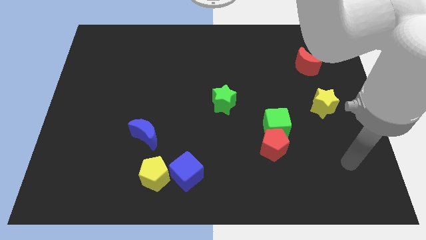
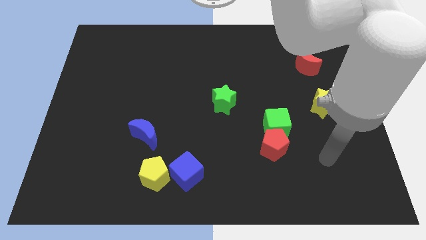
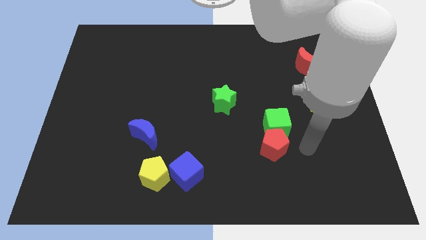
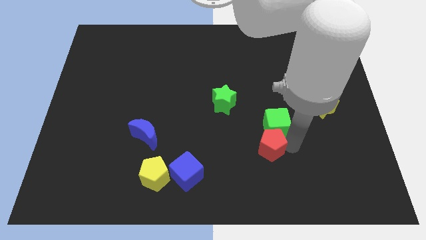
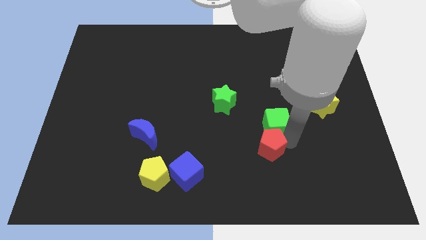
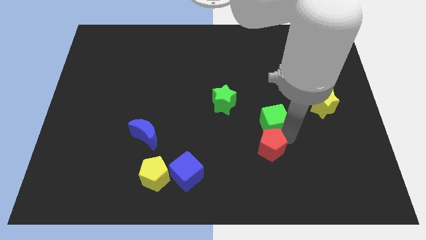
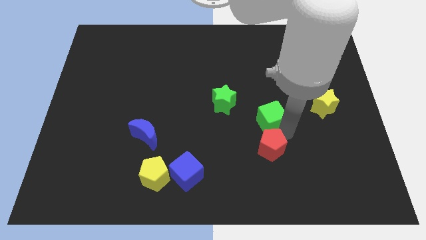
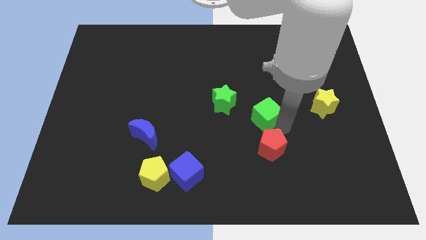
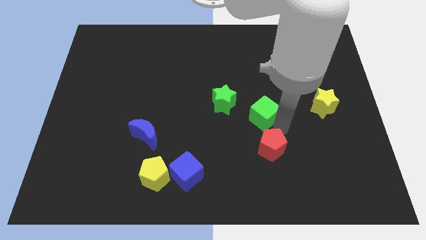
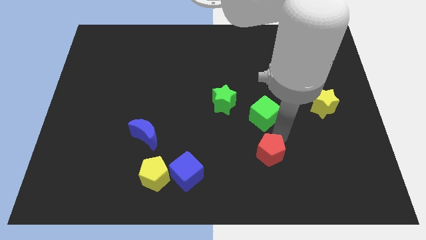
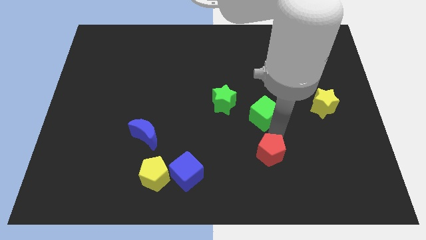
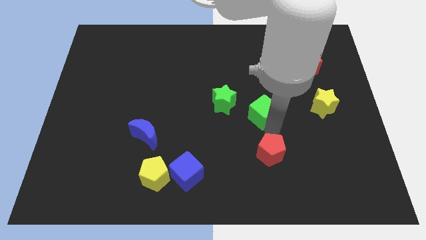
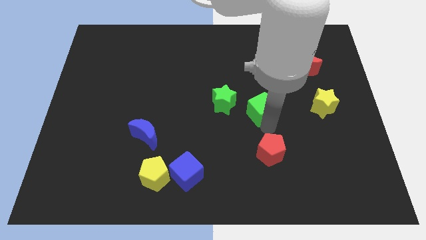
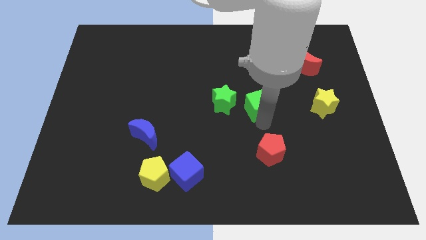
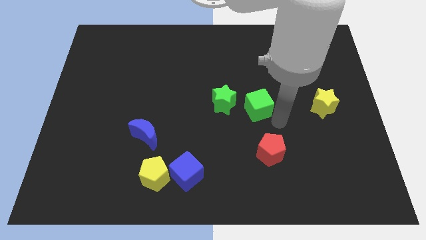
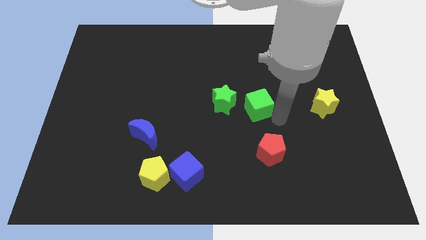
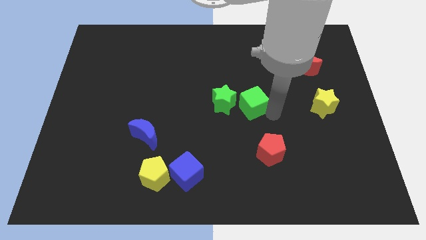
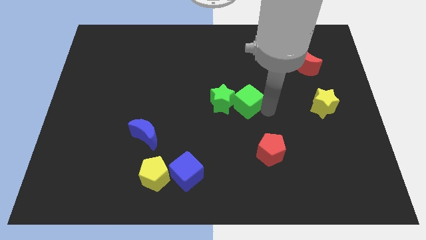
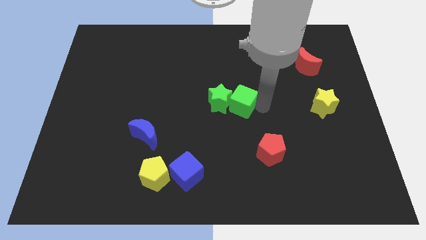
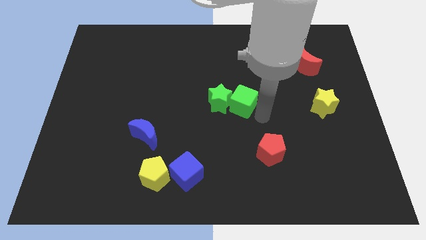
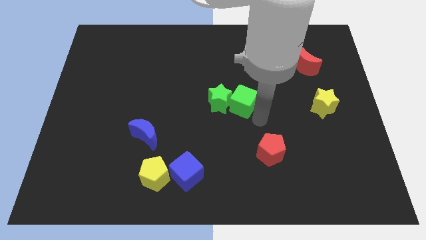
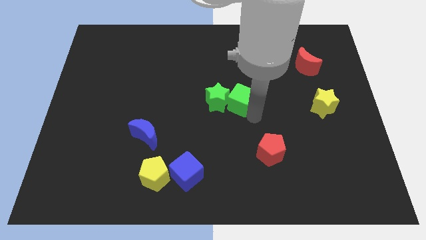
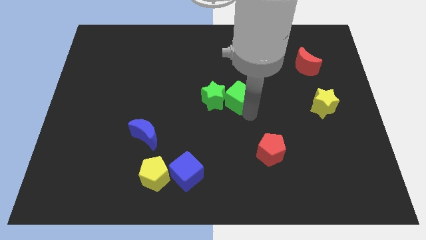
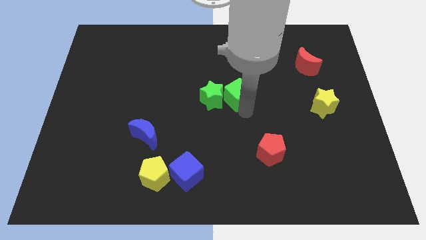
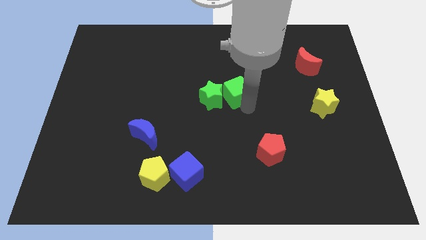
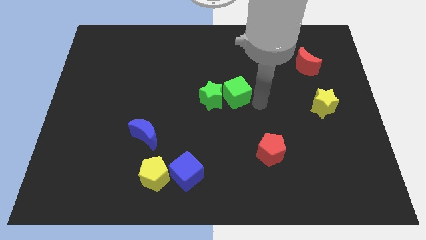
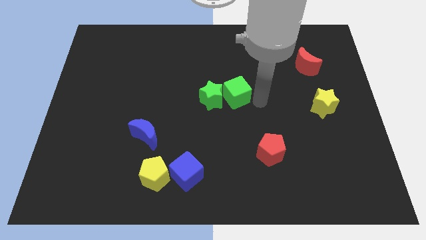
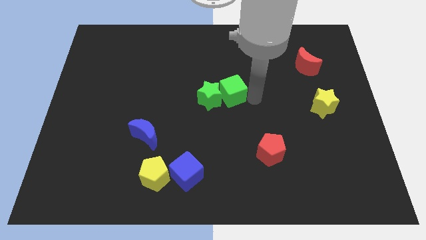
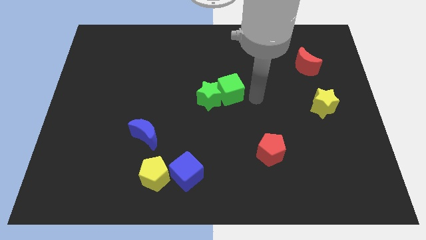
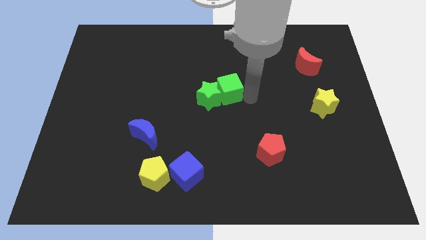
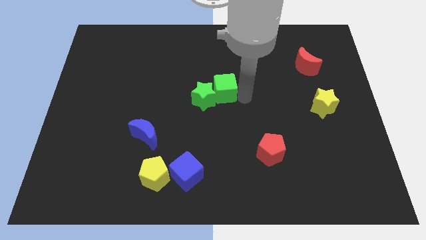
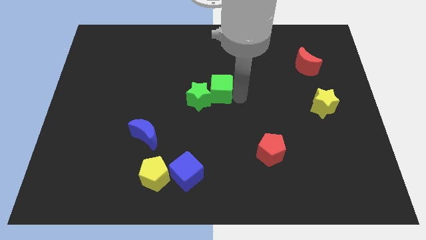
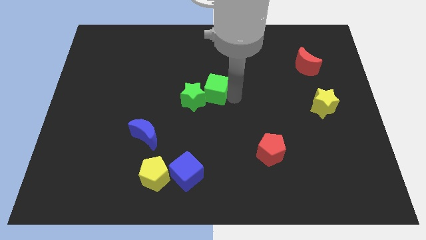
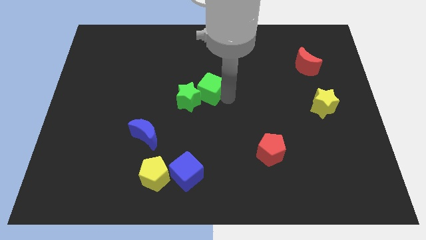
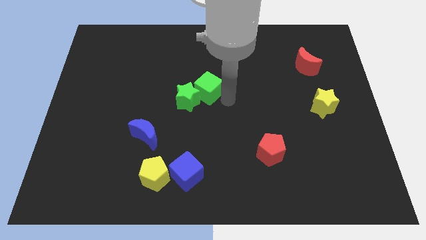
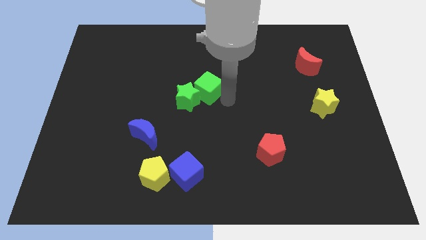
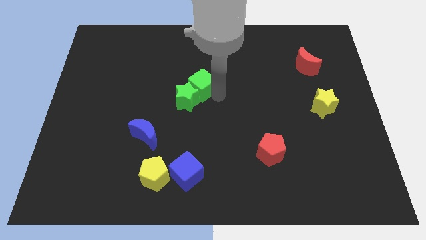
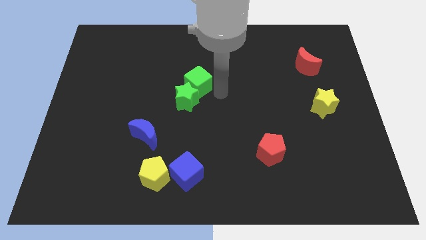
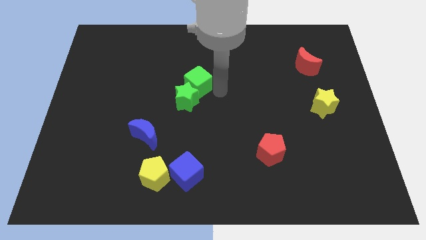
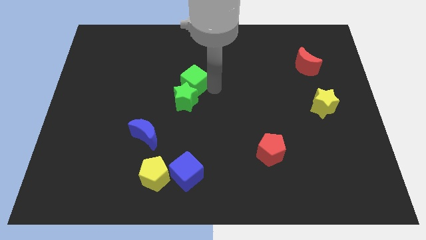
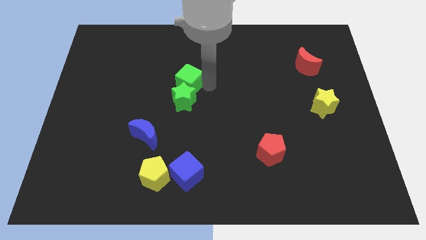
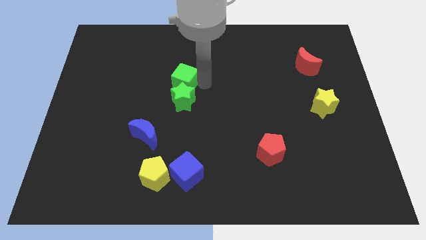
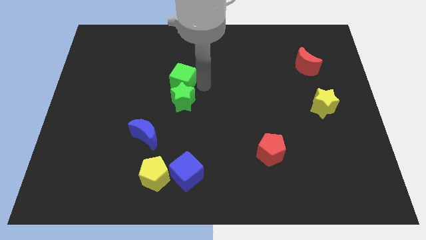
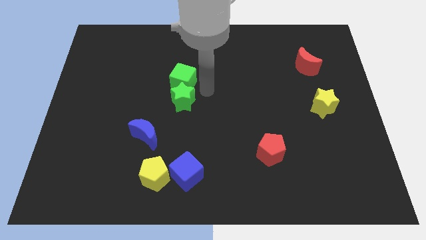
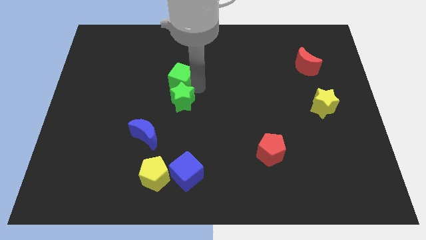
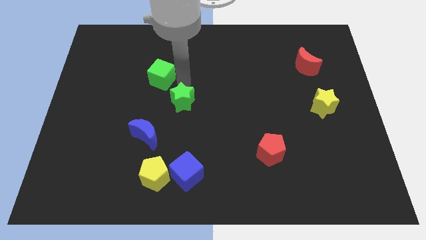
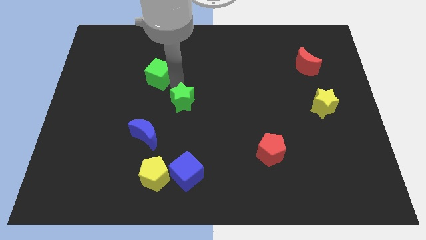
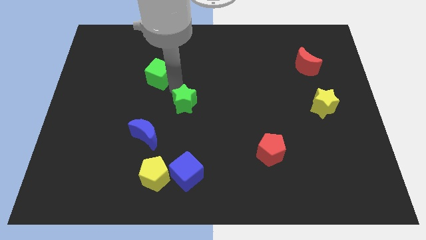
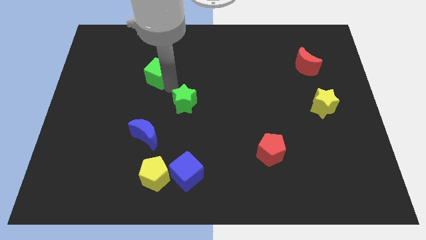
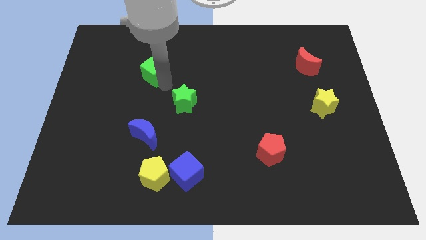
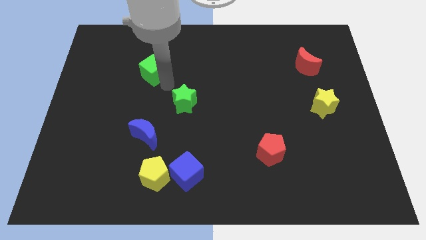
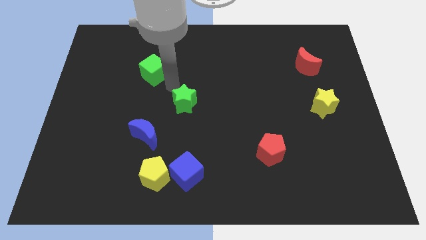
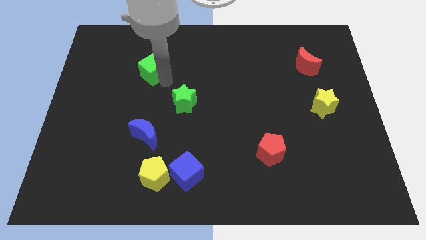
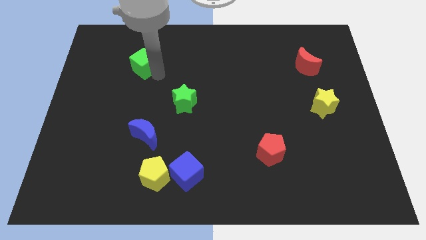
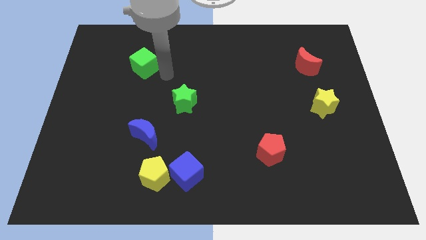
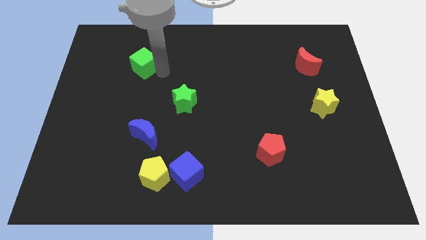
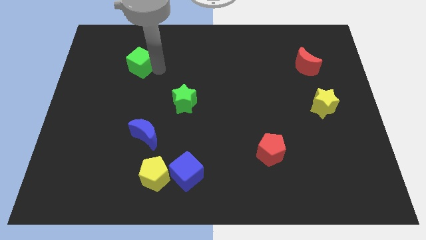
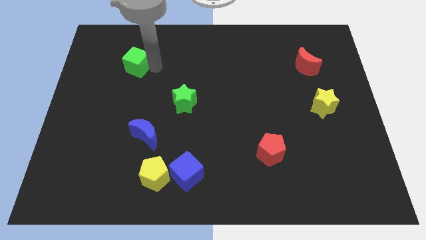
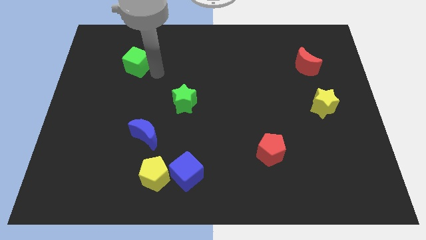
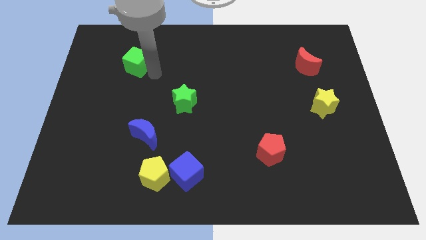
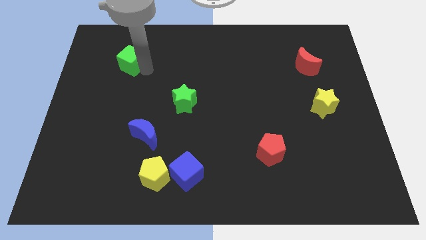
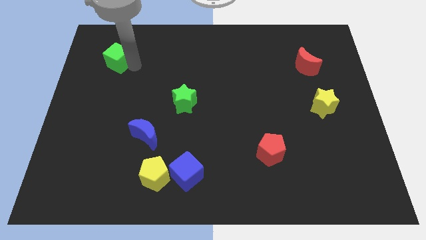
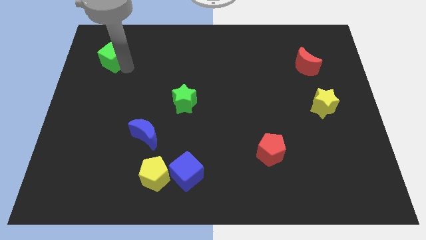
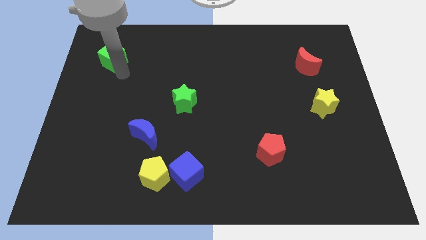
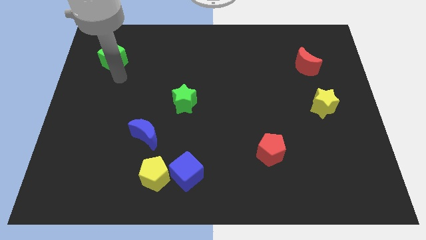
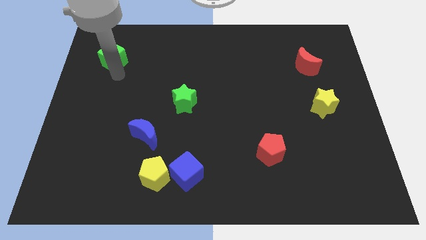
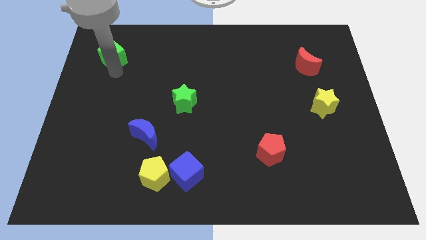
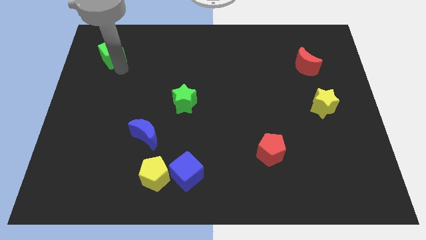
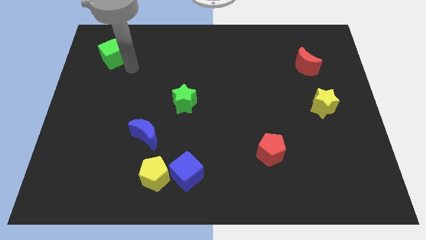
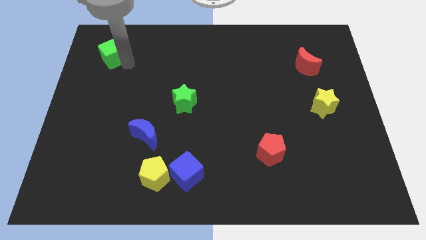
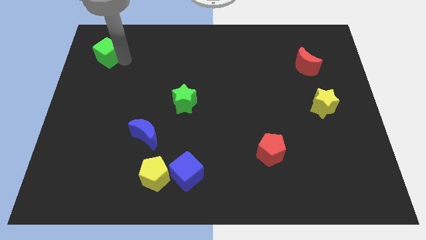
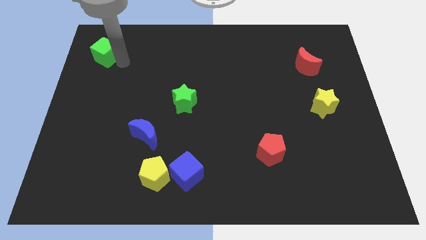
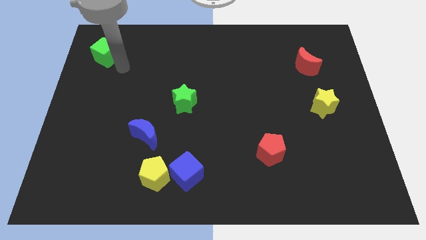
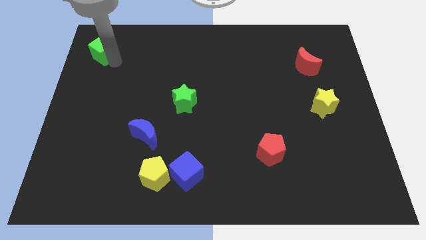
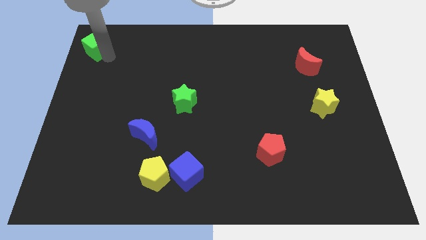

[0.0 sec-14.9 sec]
move the green cube to the upper left corner
